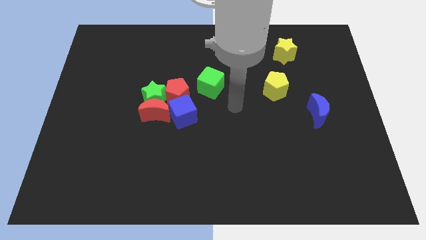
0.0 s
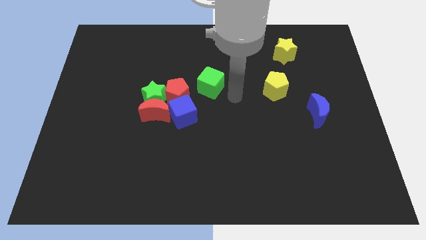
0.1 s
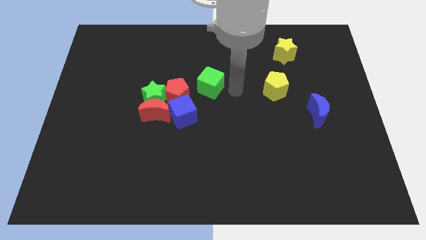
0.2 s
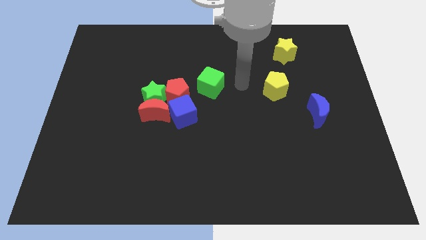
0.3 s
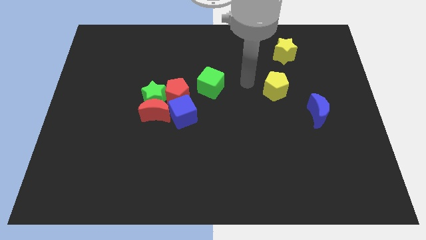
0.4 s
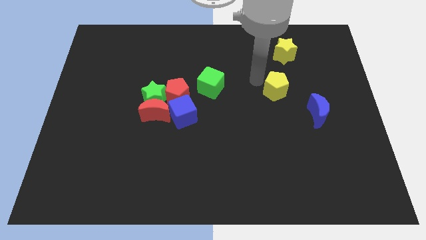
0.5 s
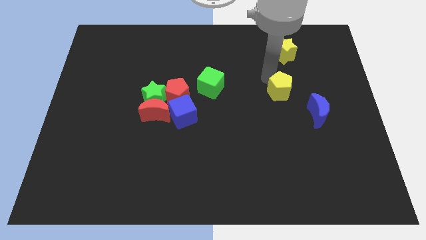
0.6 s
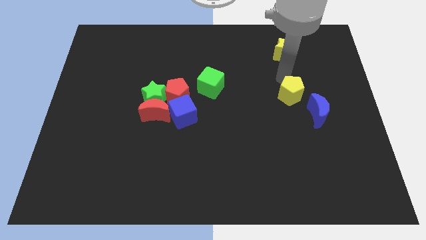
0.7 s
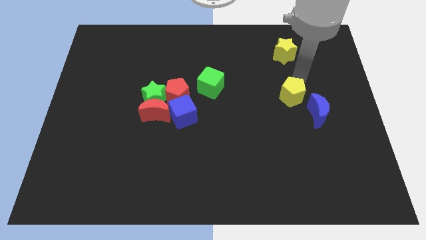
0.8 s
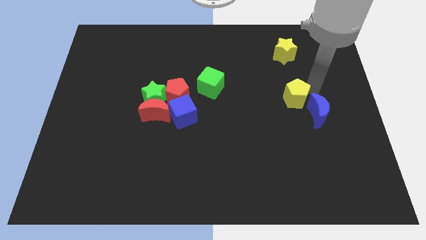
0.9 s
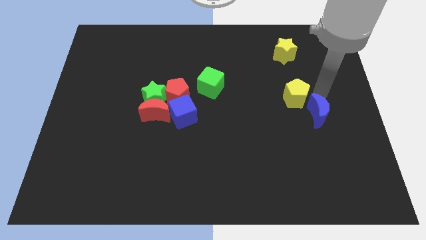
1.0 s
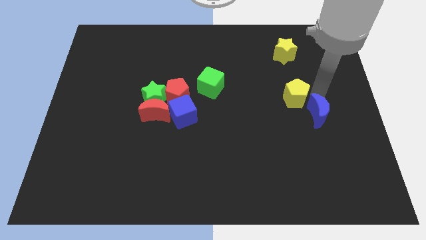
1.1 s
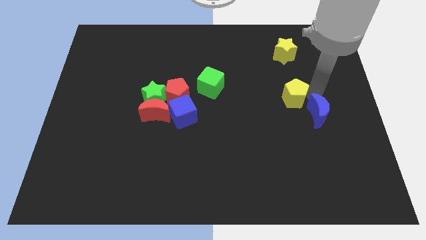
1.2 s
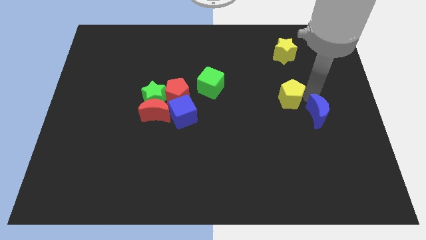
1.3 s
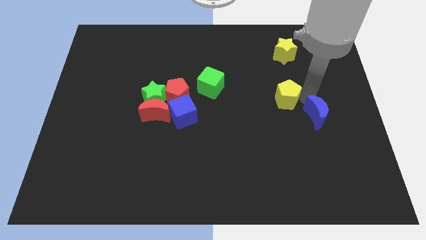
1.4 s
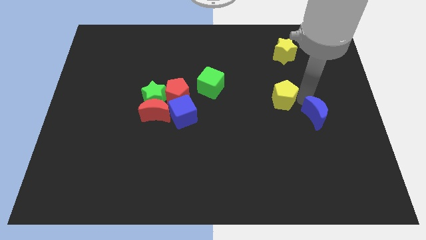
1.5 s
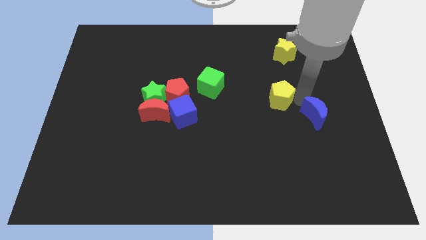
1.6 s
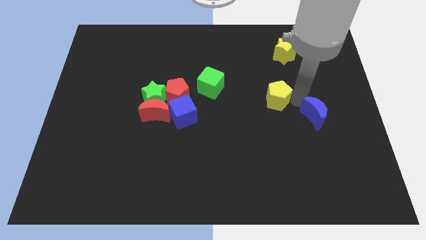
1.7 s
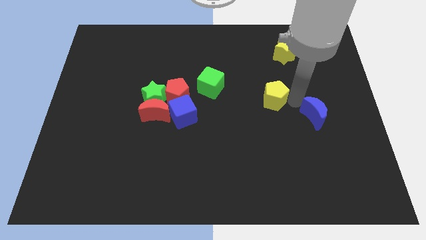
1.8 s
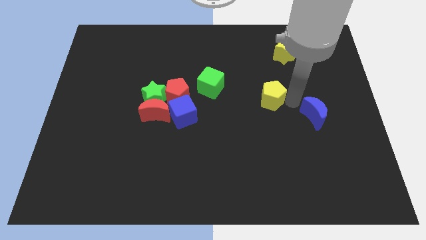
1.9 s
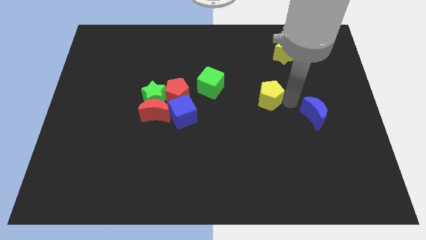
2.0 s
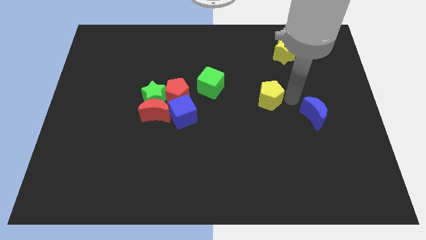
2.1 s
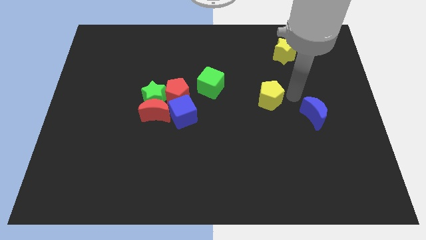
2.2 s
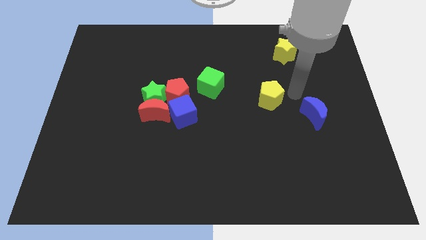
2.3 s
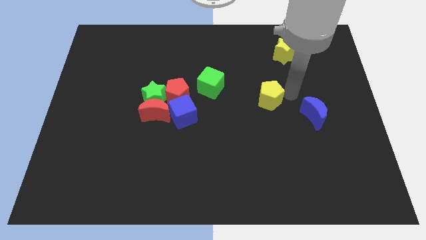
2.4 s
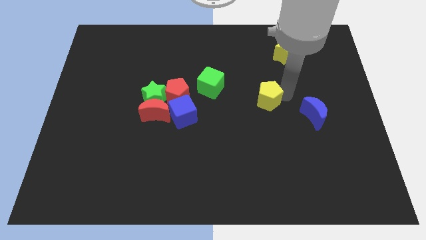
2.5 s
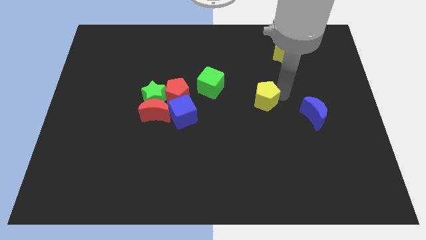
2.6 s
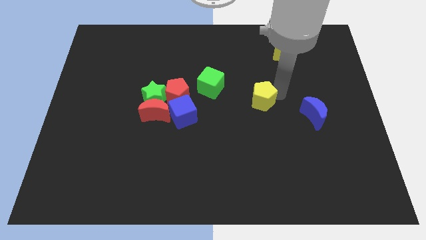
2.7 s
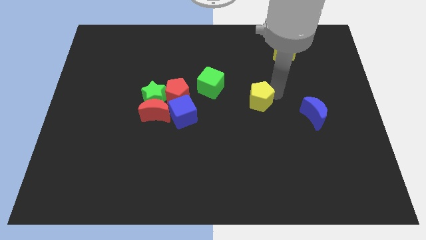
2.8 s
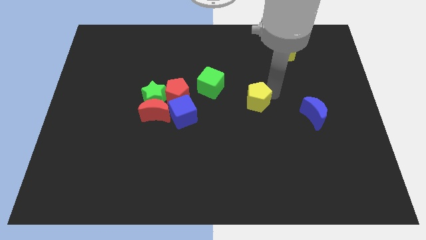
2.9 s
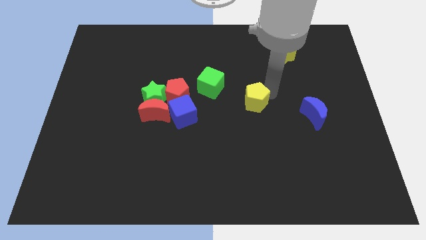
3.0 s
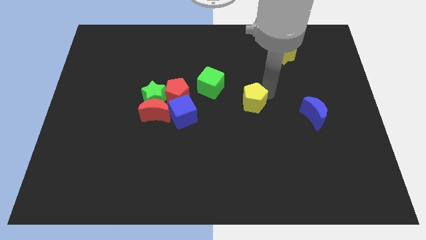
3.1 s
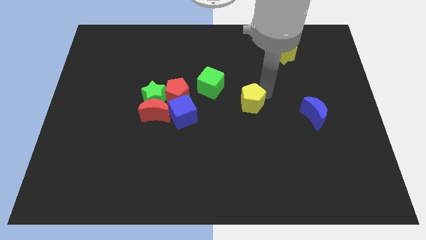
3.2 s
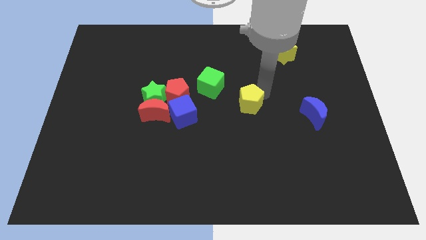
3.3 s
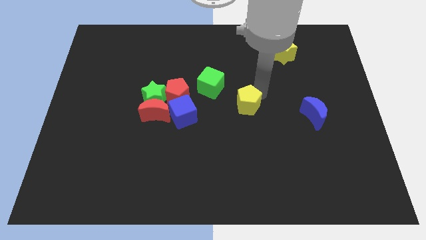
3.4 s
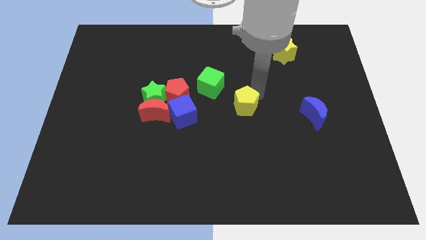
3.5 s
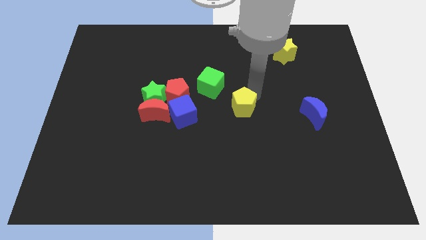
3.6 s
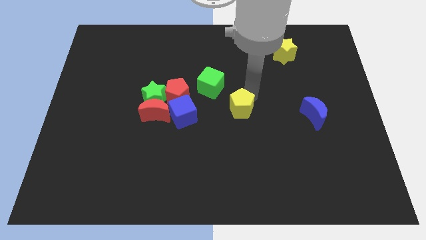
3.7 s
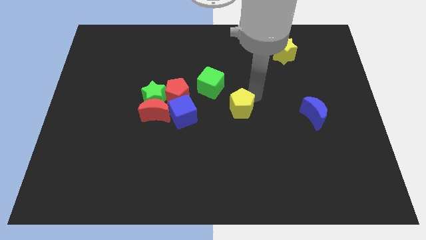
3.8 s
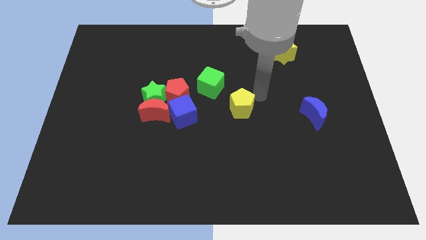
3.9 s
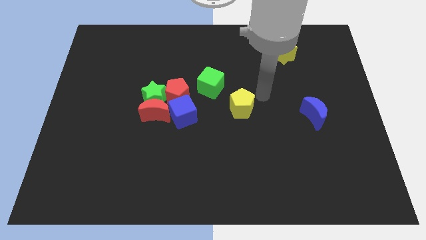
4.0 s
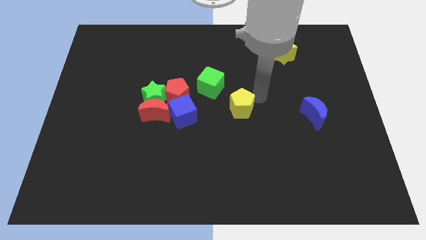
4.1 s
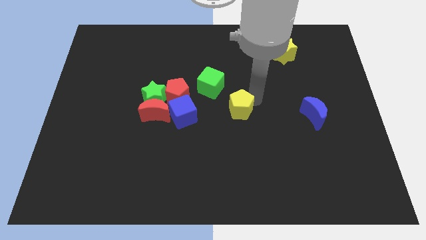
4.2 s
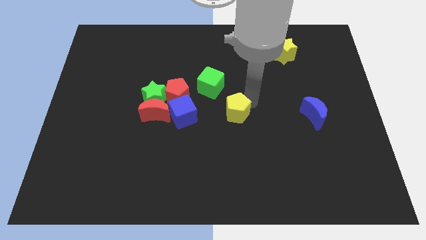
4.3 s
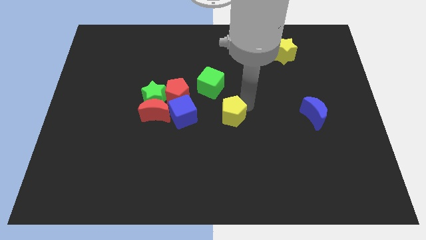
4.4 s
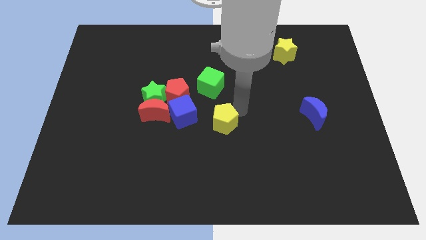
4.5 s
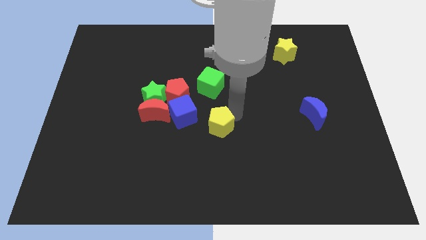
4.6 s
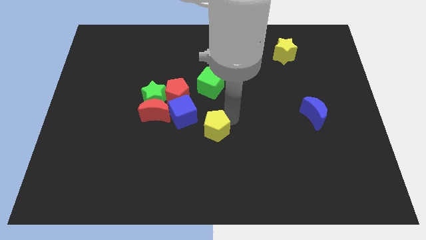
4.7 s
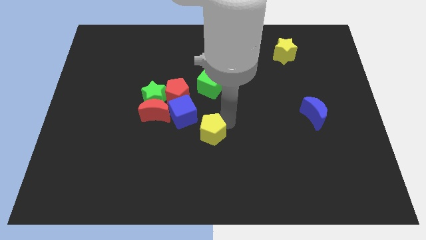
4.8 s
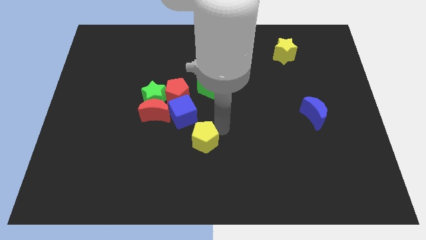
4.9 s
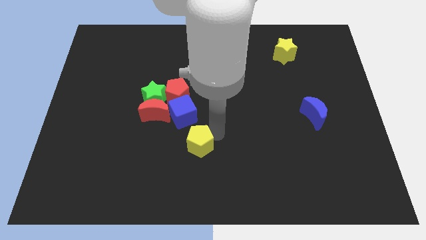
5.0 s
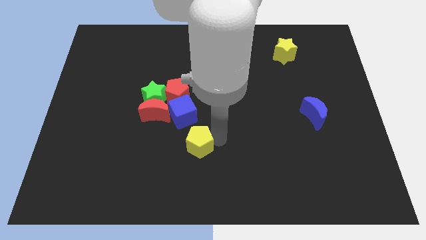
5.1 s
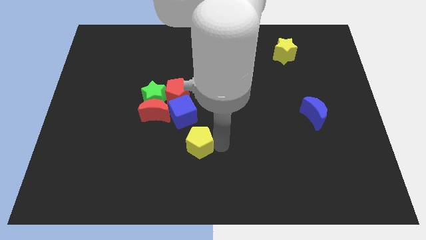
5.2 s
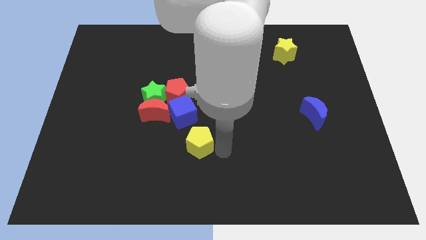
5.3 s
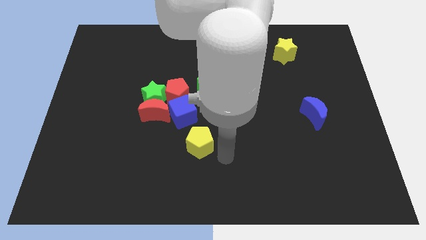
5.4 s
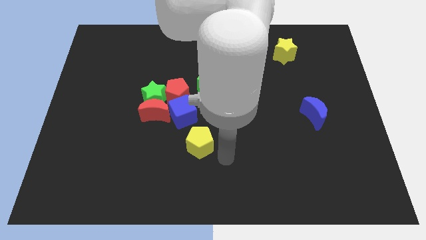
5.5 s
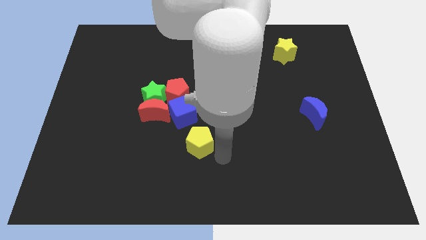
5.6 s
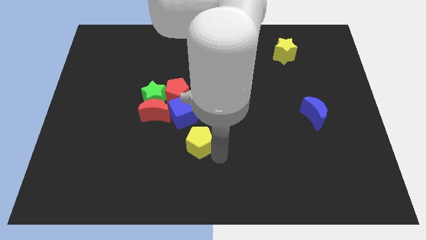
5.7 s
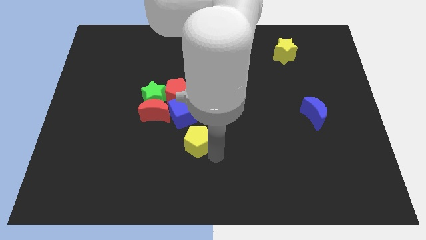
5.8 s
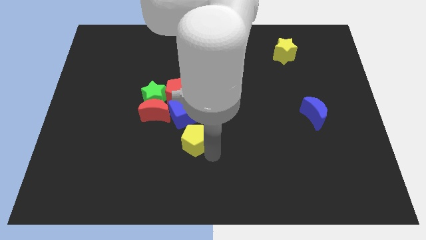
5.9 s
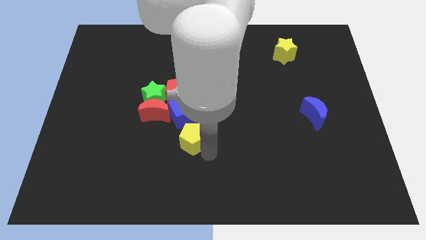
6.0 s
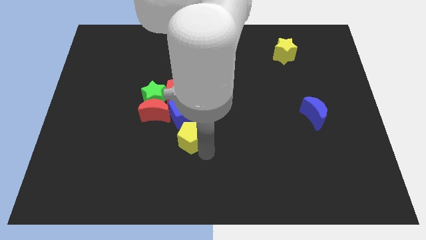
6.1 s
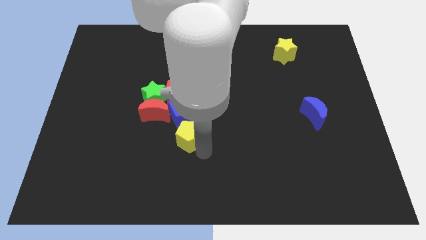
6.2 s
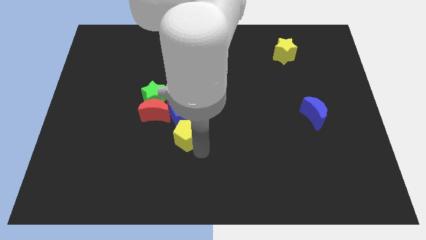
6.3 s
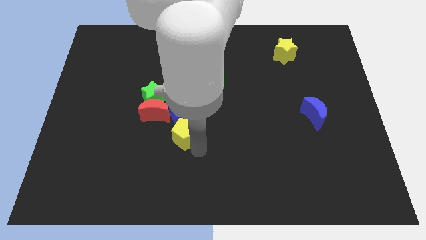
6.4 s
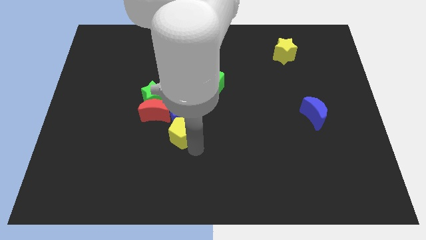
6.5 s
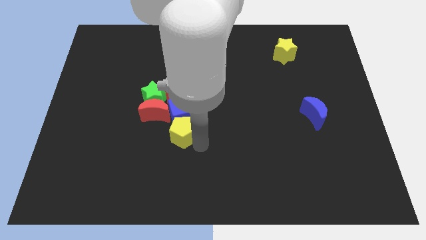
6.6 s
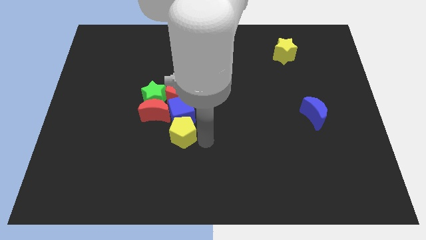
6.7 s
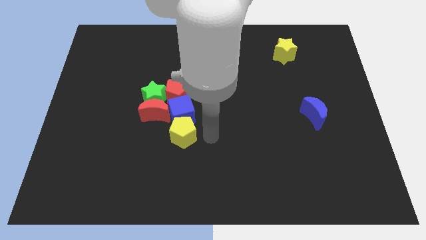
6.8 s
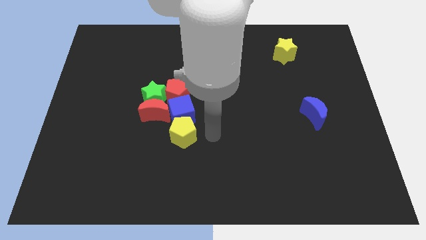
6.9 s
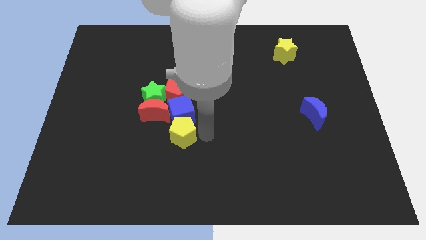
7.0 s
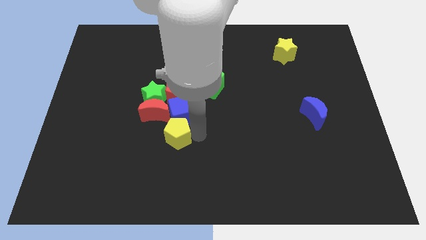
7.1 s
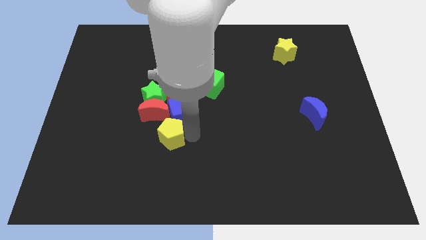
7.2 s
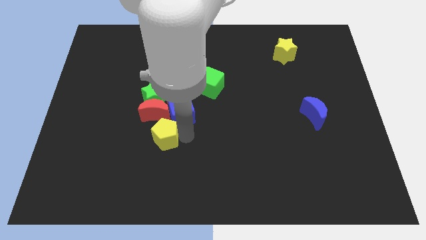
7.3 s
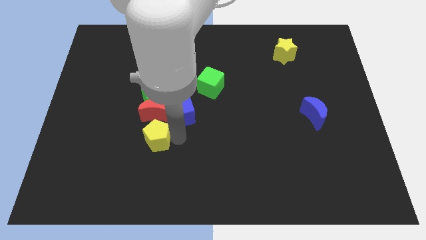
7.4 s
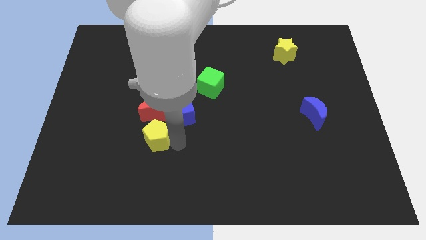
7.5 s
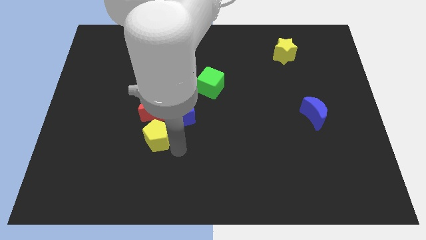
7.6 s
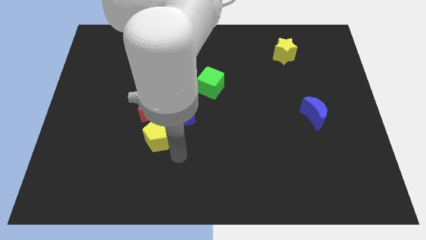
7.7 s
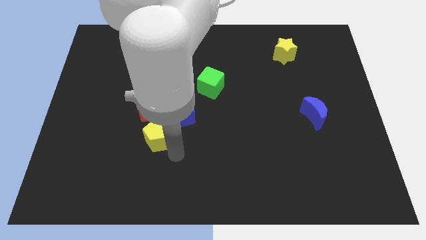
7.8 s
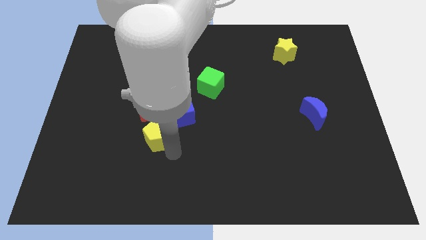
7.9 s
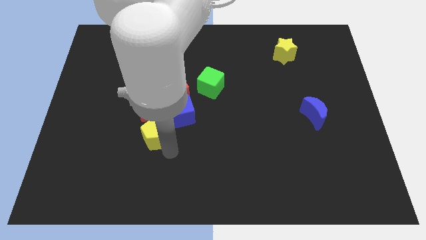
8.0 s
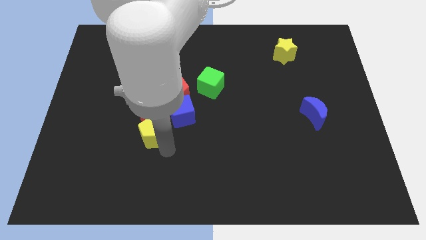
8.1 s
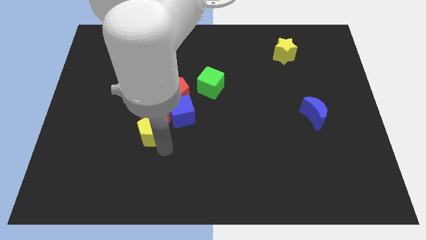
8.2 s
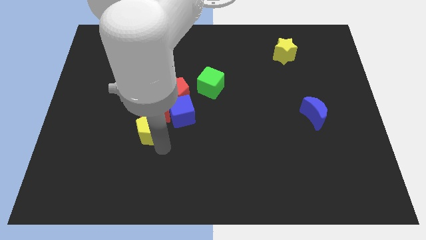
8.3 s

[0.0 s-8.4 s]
put the yellow pentagon diagonally down and to the left of the red pentagon
